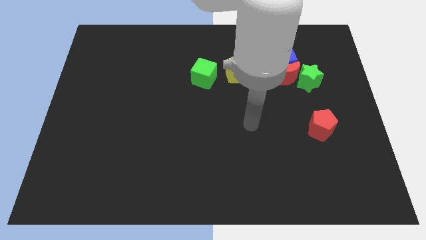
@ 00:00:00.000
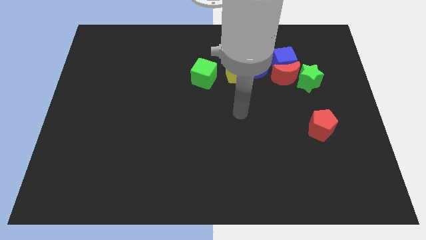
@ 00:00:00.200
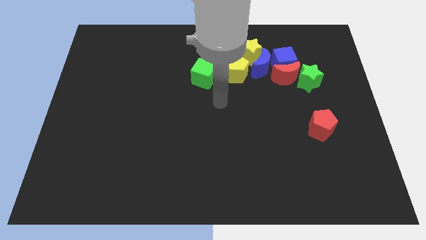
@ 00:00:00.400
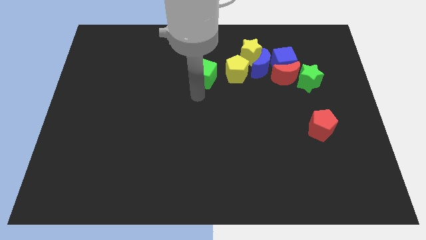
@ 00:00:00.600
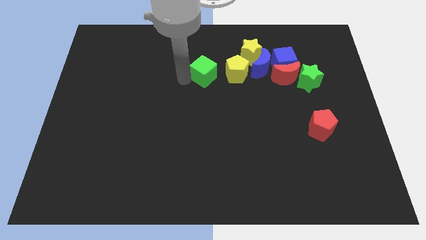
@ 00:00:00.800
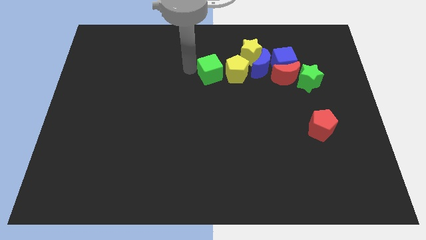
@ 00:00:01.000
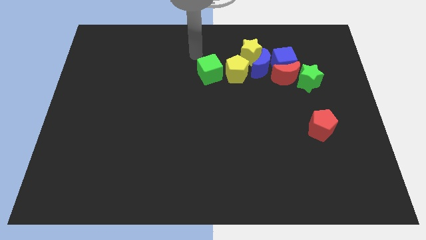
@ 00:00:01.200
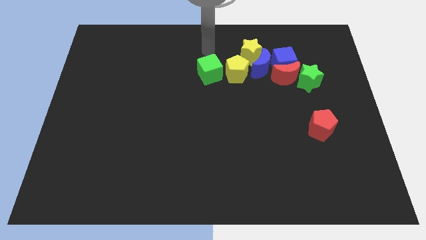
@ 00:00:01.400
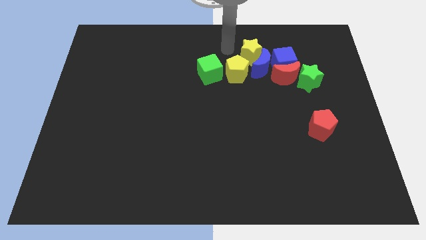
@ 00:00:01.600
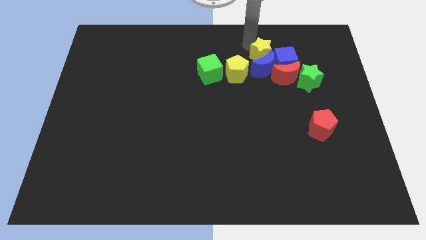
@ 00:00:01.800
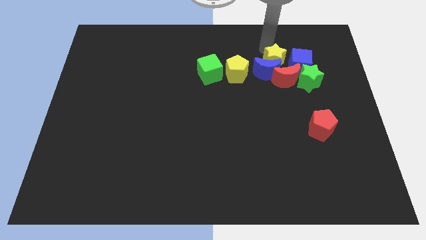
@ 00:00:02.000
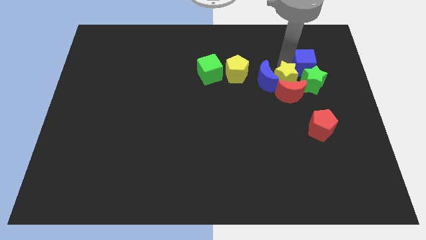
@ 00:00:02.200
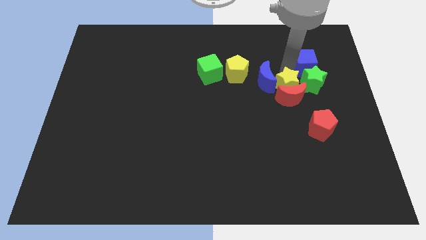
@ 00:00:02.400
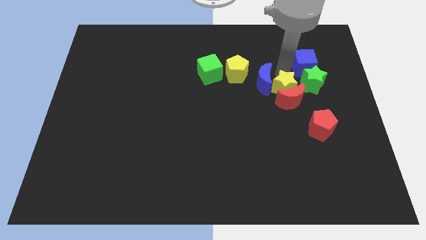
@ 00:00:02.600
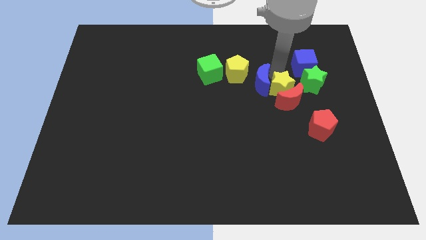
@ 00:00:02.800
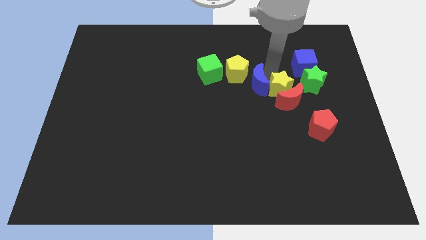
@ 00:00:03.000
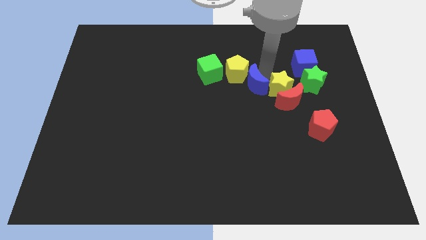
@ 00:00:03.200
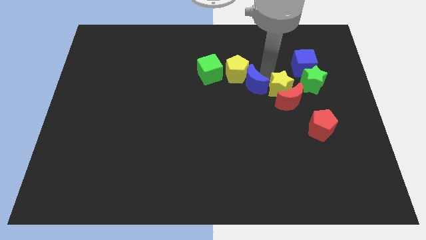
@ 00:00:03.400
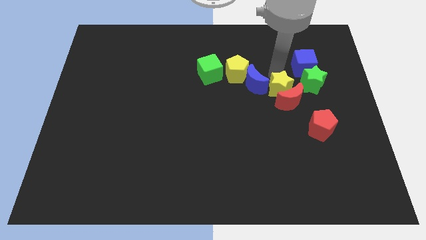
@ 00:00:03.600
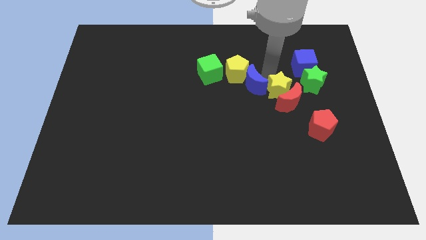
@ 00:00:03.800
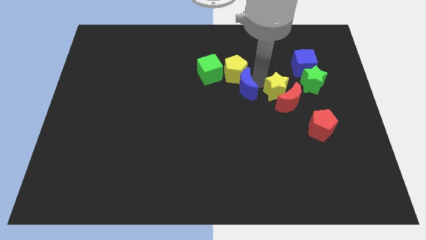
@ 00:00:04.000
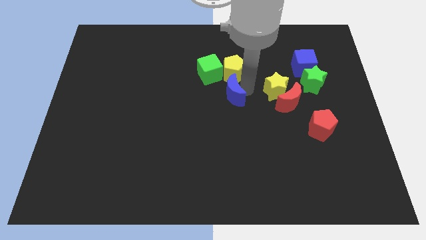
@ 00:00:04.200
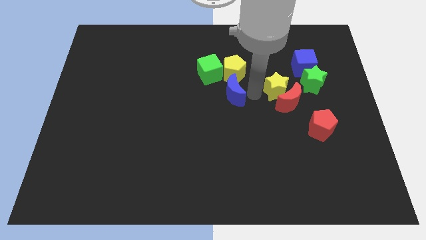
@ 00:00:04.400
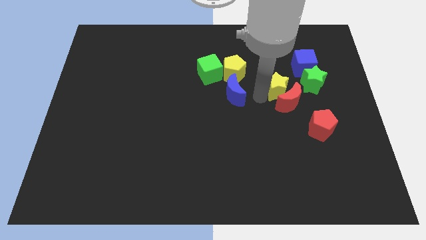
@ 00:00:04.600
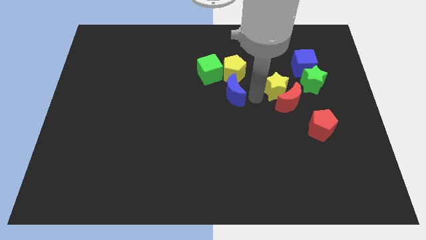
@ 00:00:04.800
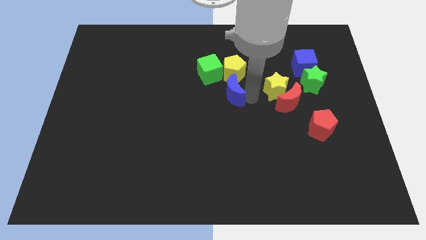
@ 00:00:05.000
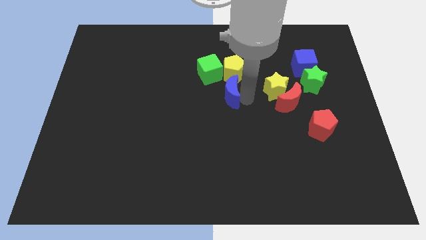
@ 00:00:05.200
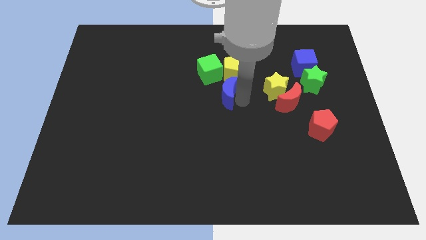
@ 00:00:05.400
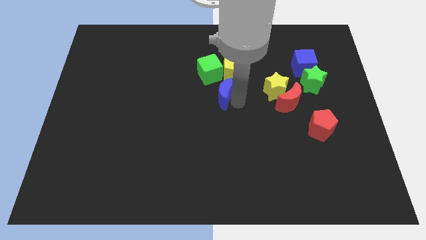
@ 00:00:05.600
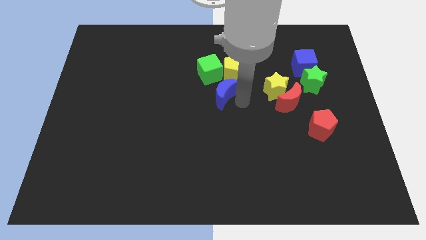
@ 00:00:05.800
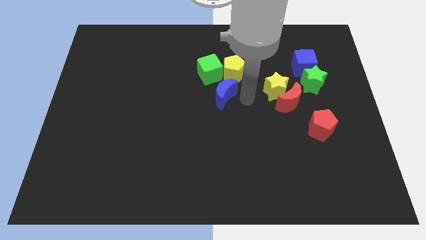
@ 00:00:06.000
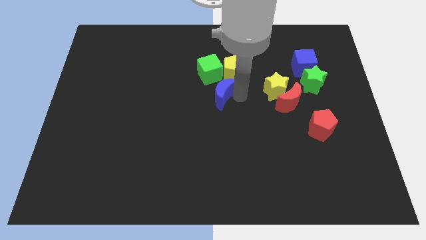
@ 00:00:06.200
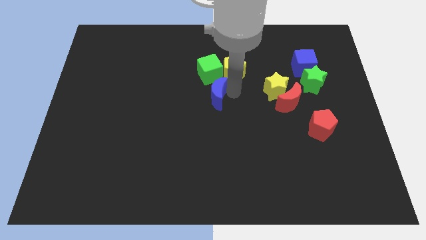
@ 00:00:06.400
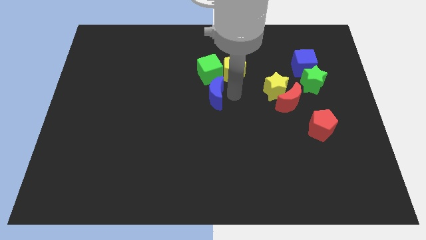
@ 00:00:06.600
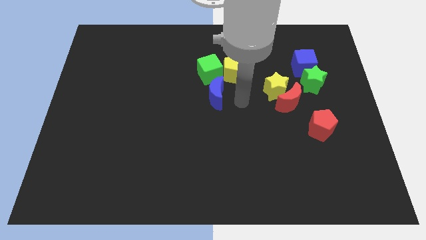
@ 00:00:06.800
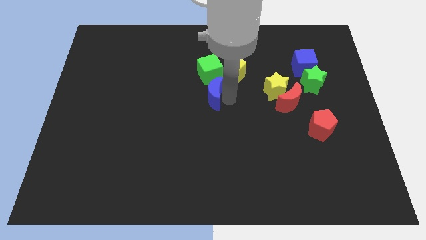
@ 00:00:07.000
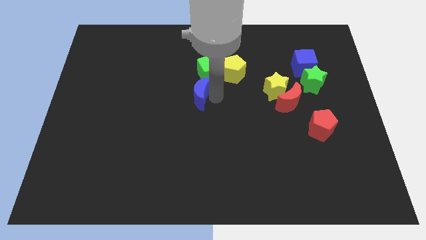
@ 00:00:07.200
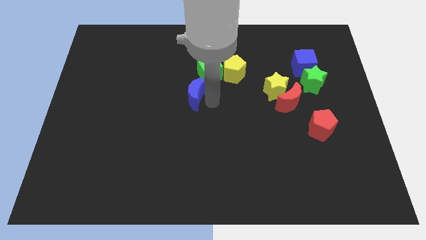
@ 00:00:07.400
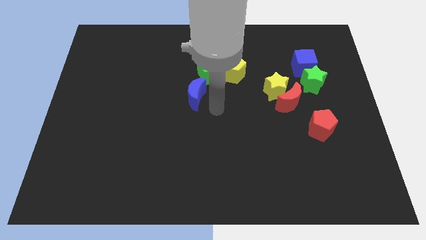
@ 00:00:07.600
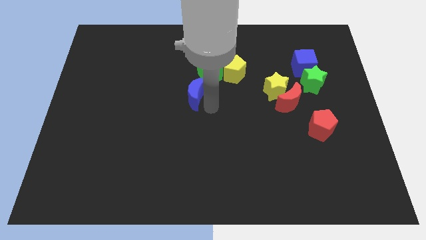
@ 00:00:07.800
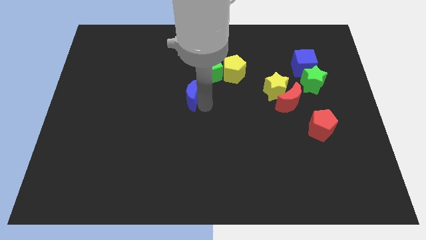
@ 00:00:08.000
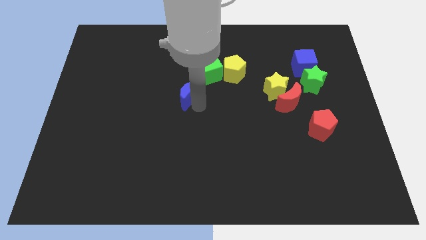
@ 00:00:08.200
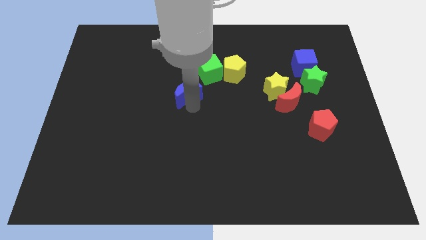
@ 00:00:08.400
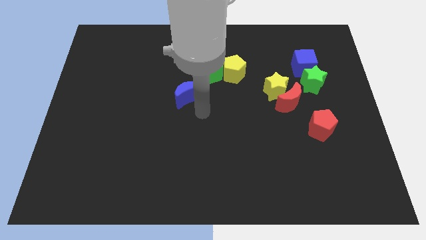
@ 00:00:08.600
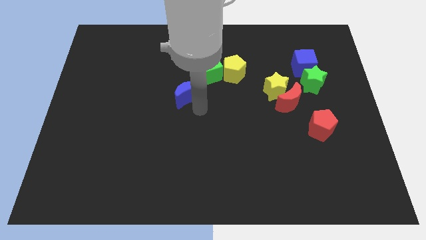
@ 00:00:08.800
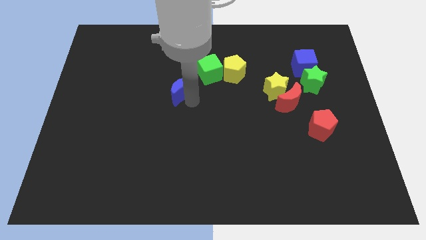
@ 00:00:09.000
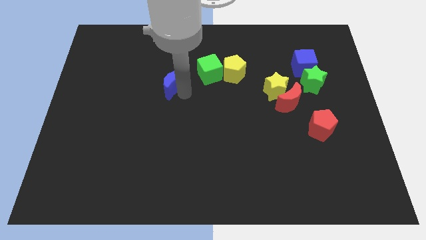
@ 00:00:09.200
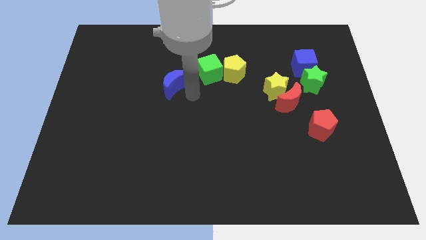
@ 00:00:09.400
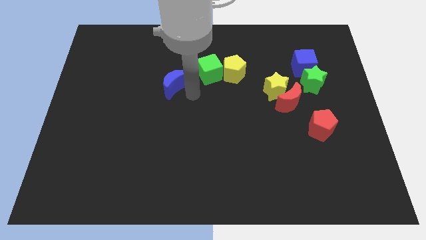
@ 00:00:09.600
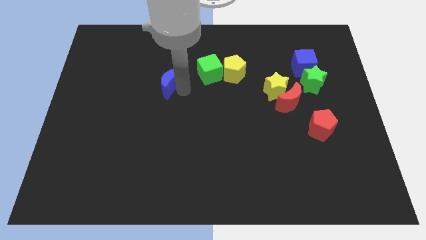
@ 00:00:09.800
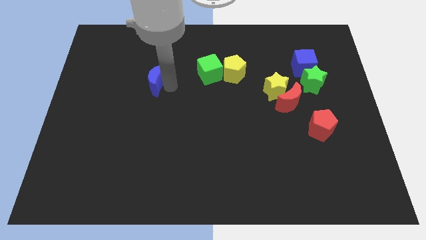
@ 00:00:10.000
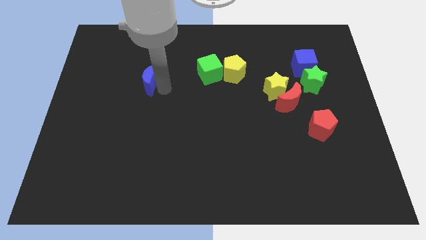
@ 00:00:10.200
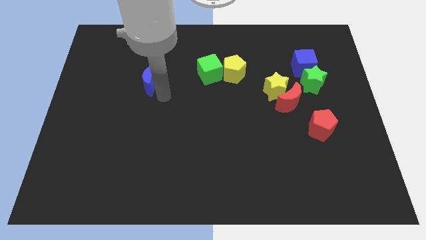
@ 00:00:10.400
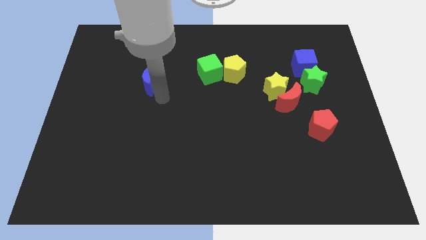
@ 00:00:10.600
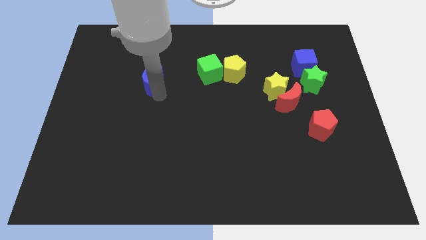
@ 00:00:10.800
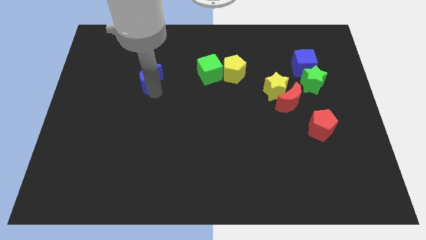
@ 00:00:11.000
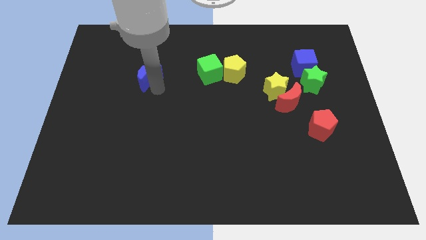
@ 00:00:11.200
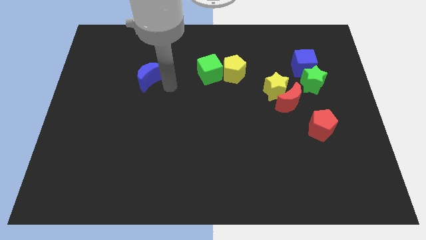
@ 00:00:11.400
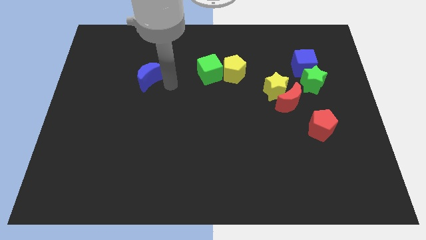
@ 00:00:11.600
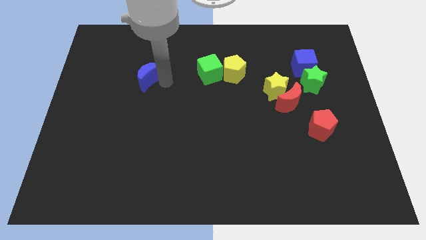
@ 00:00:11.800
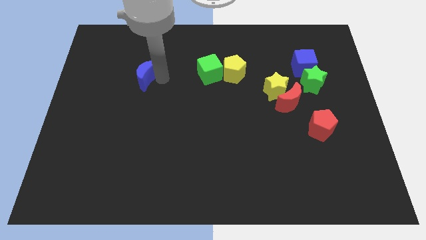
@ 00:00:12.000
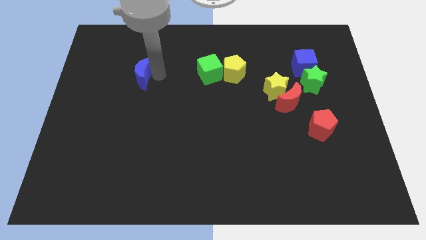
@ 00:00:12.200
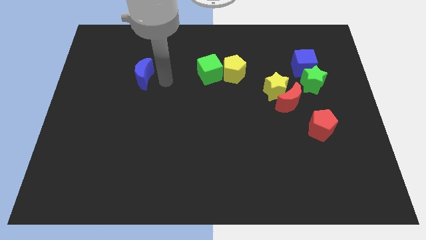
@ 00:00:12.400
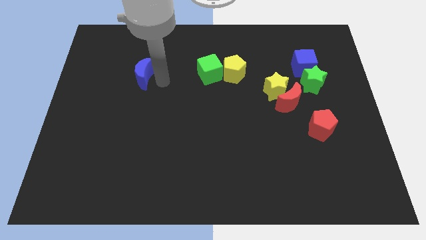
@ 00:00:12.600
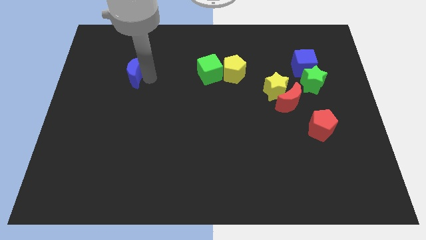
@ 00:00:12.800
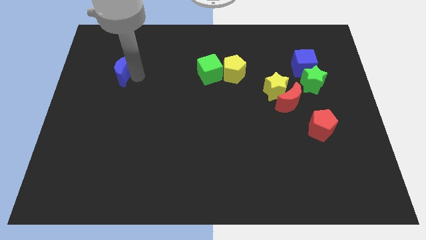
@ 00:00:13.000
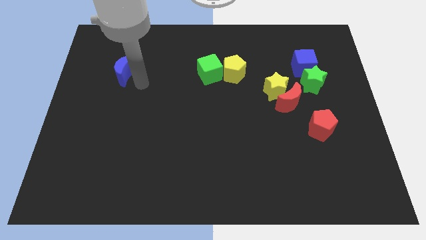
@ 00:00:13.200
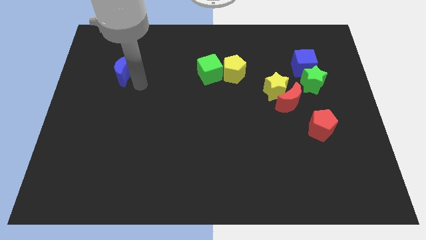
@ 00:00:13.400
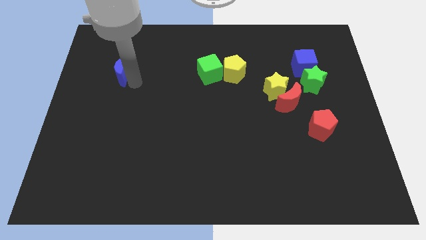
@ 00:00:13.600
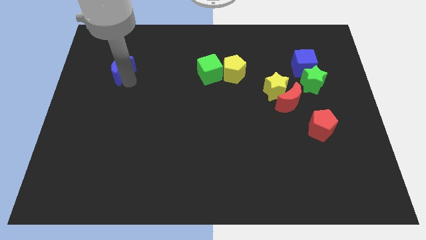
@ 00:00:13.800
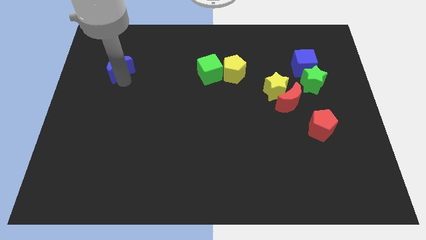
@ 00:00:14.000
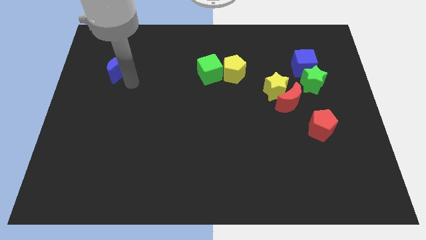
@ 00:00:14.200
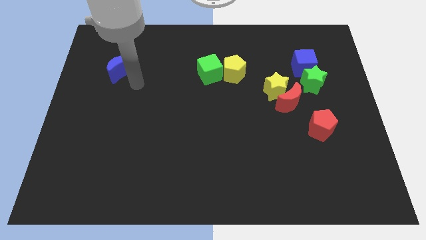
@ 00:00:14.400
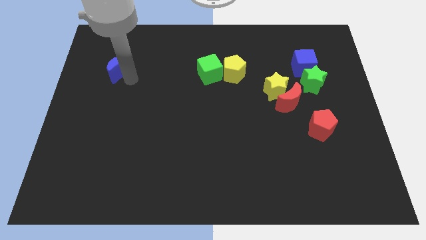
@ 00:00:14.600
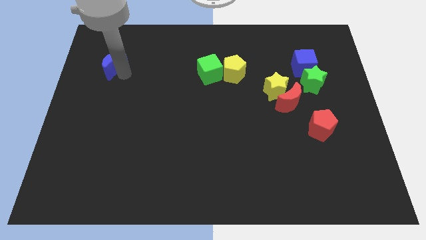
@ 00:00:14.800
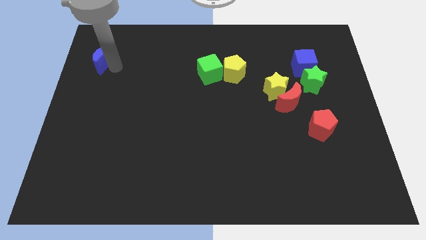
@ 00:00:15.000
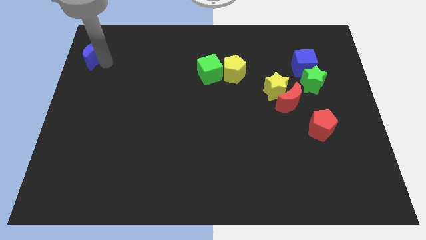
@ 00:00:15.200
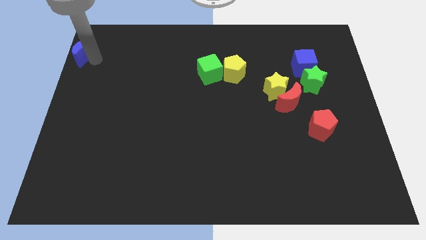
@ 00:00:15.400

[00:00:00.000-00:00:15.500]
push the blue moon to the top left
